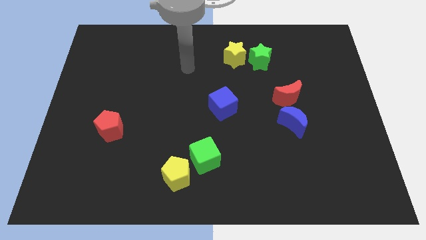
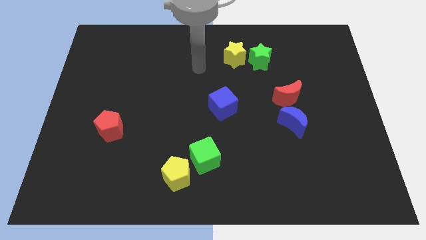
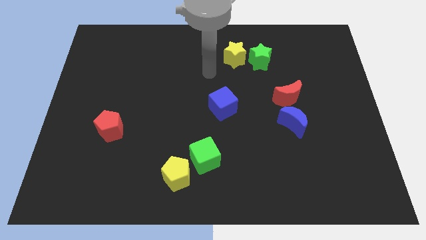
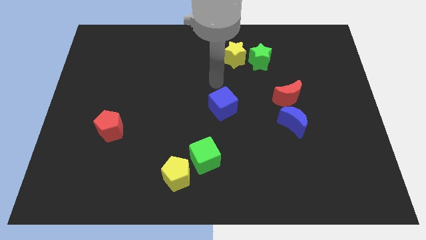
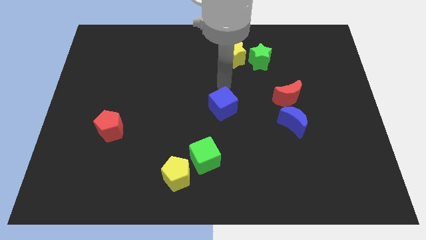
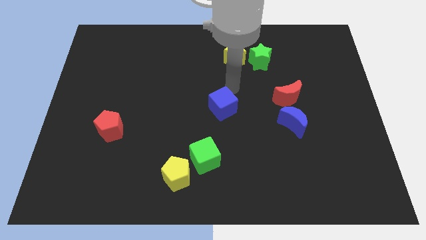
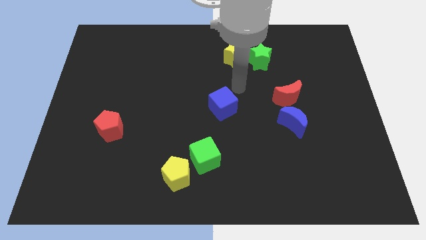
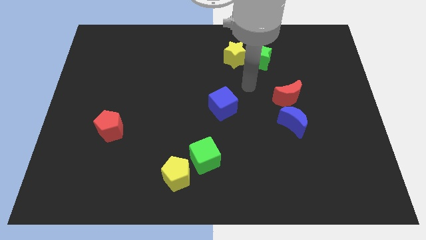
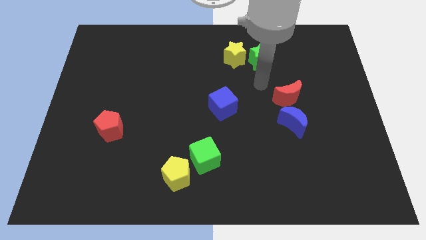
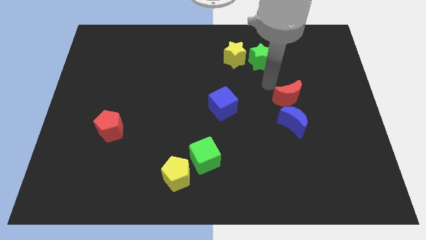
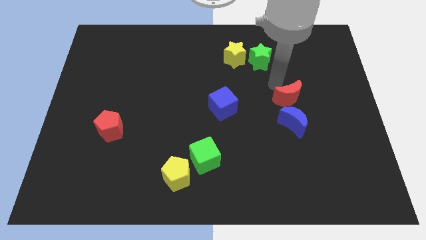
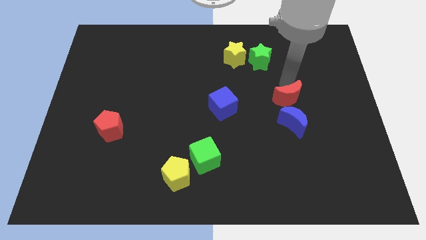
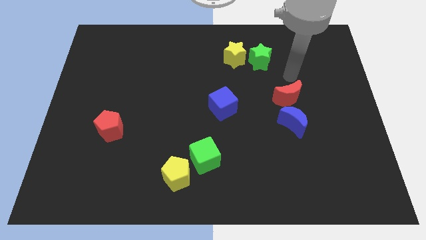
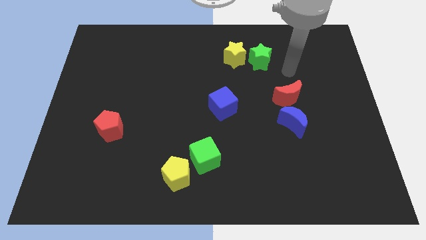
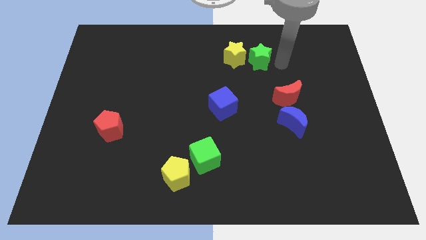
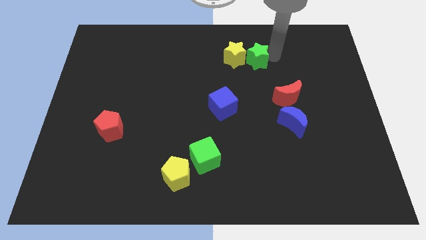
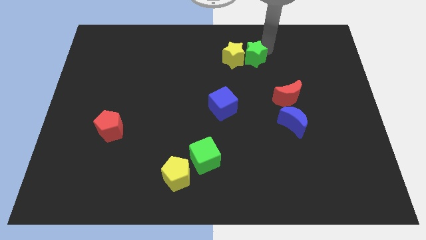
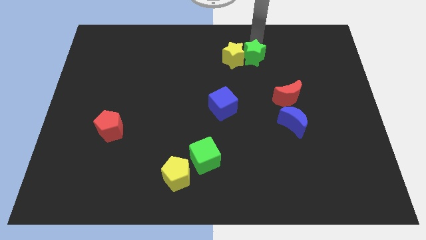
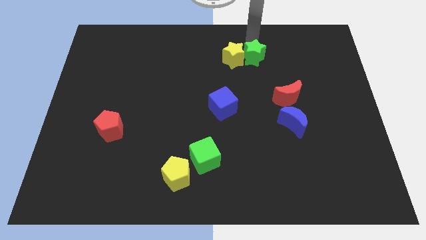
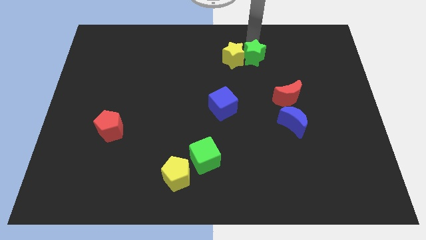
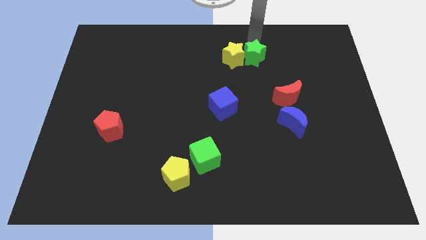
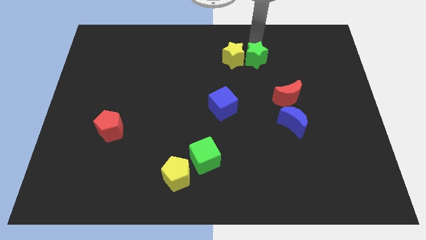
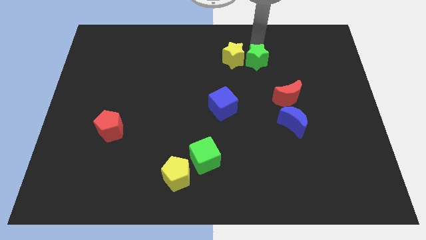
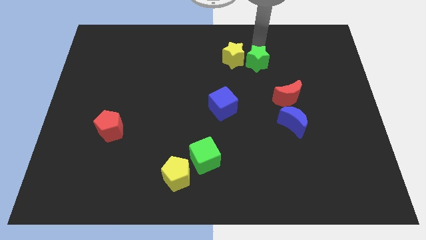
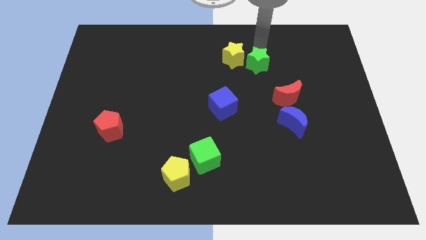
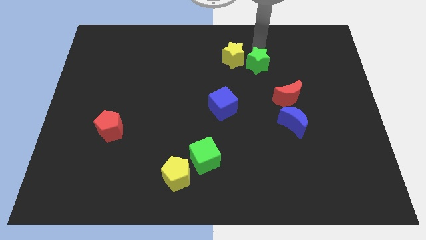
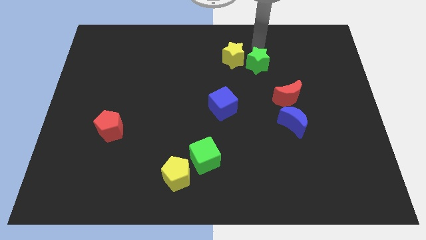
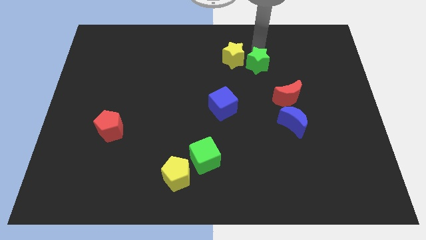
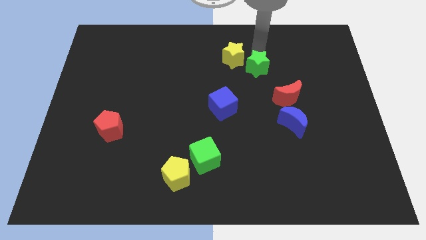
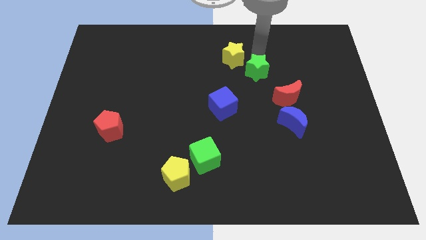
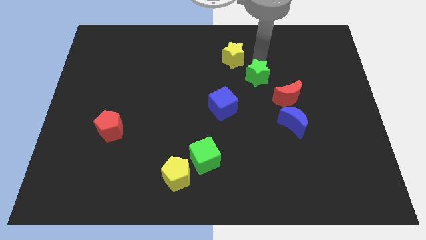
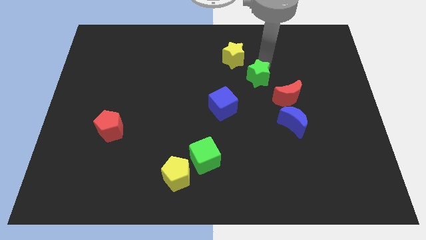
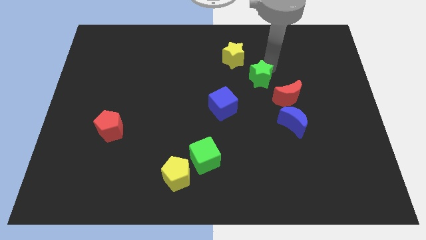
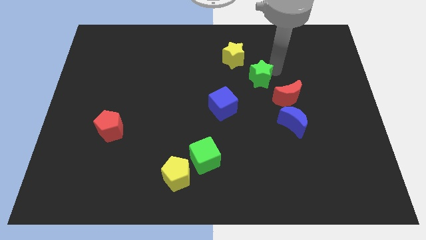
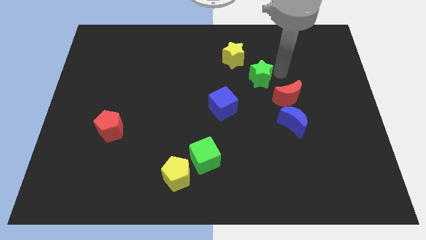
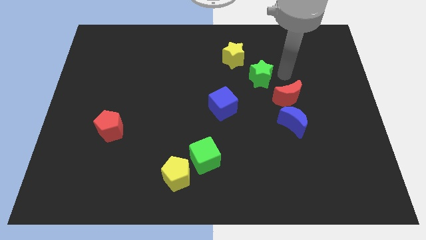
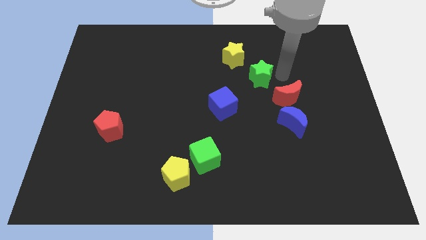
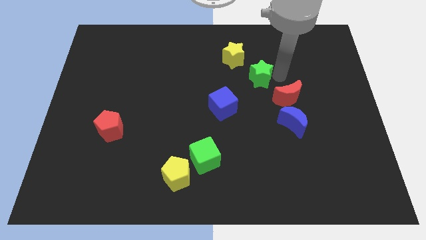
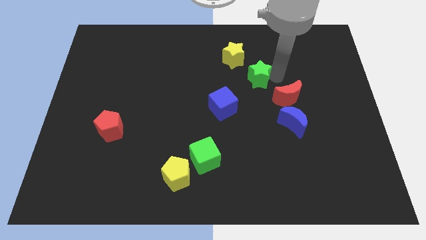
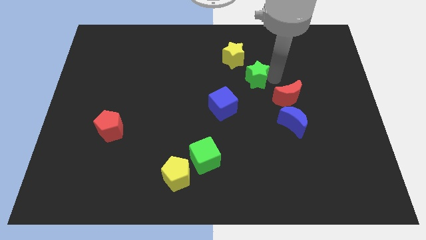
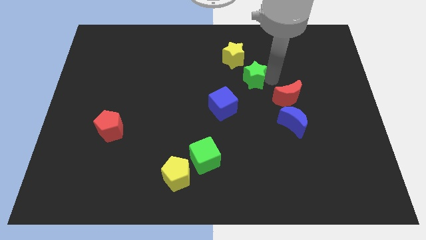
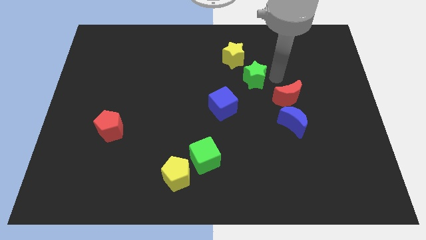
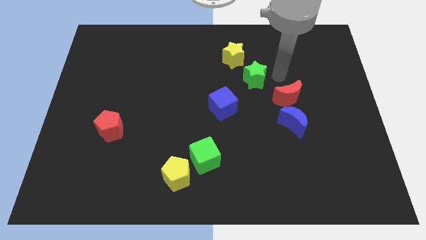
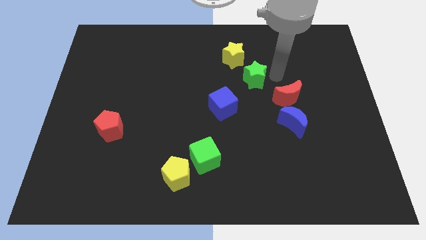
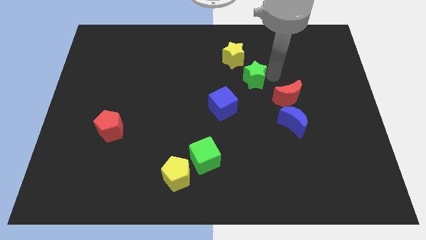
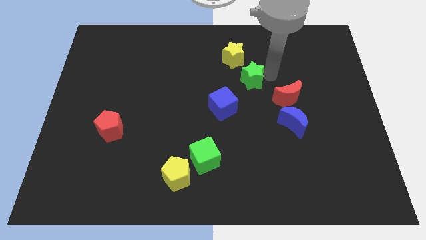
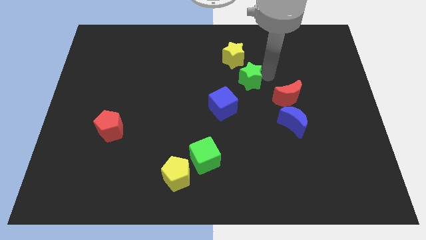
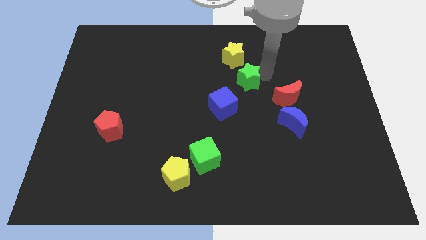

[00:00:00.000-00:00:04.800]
slightly push the green star downwards and to the left

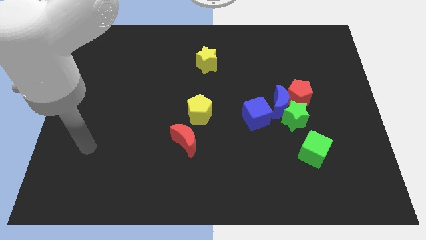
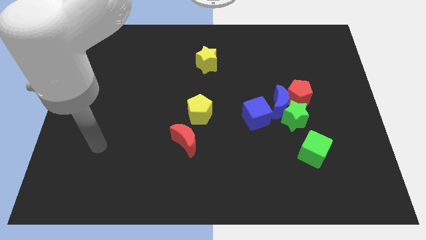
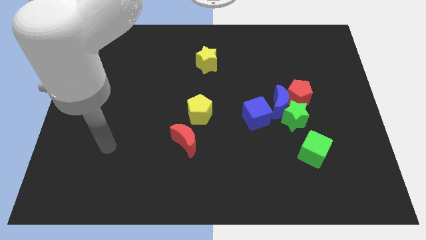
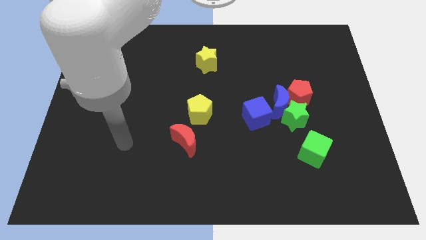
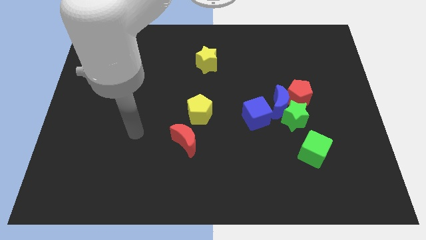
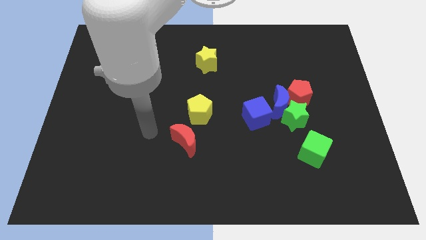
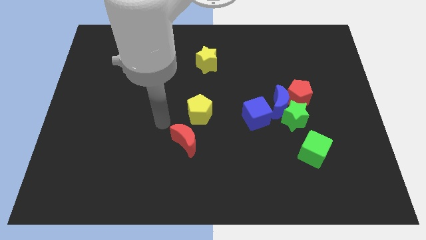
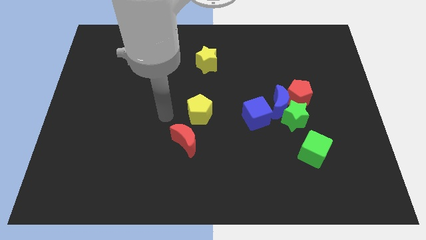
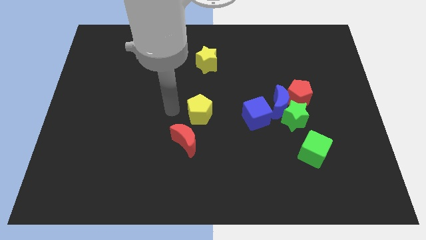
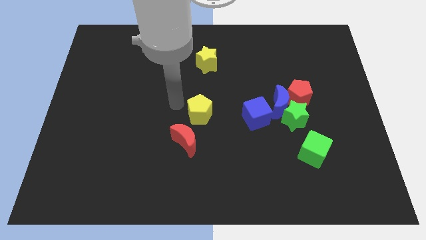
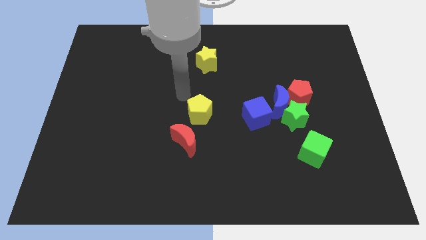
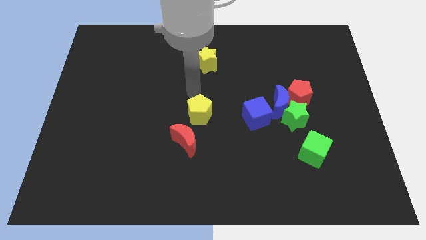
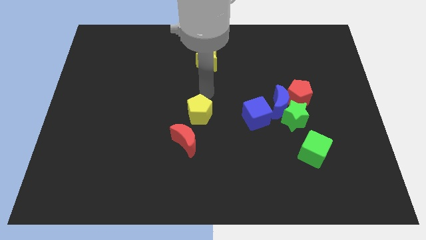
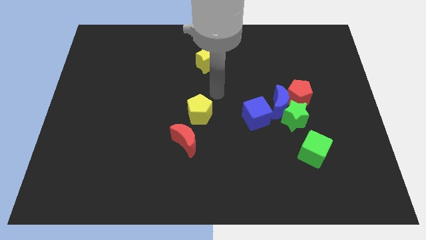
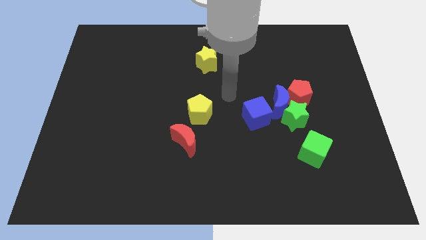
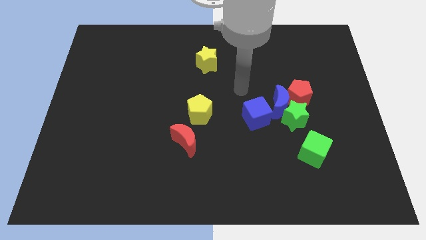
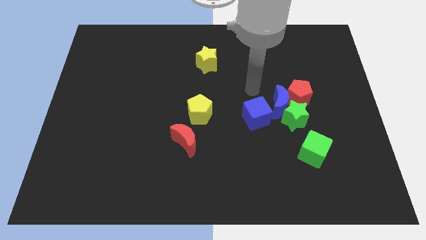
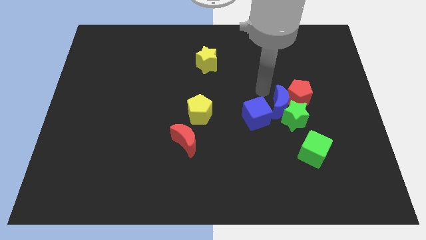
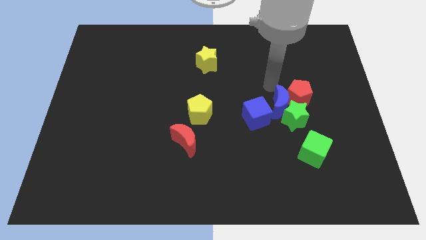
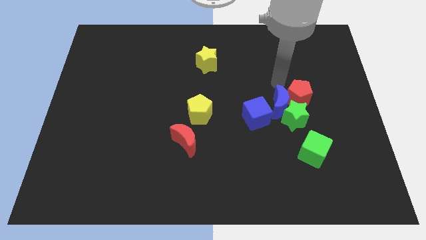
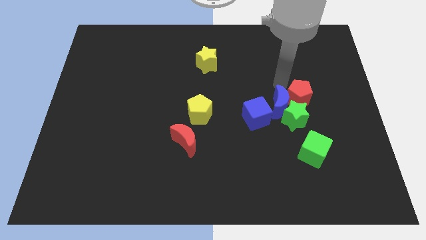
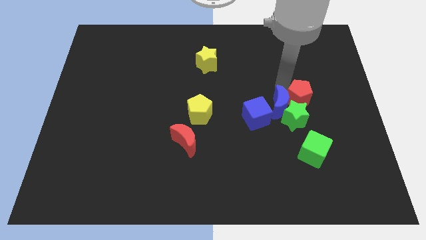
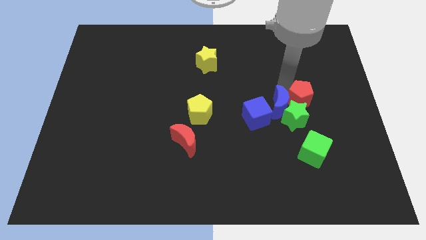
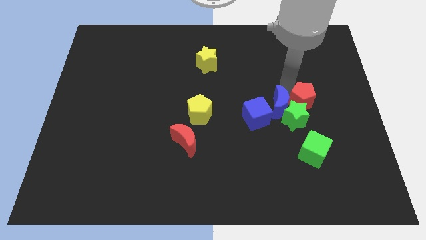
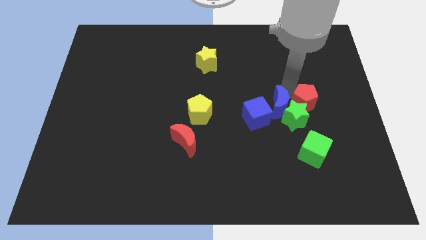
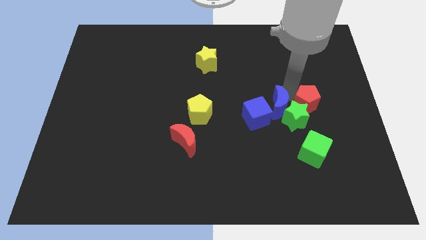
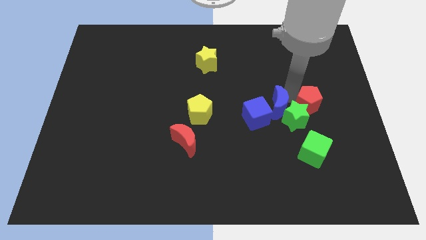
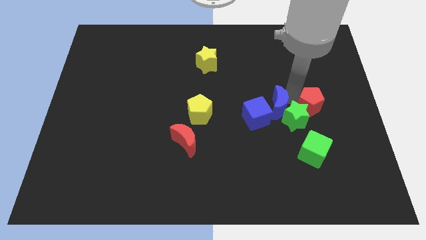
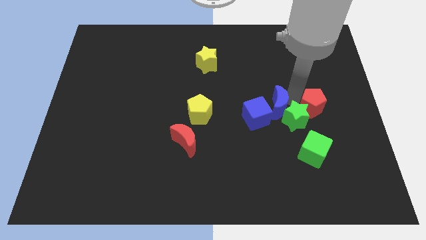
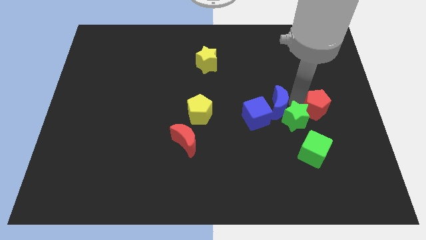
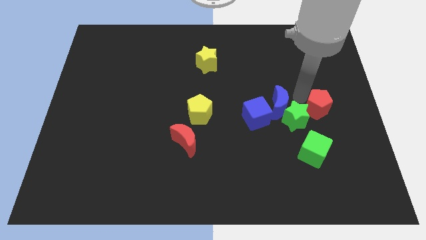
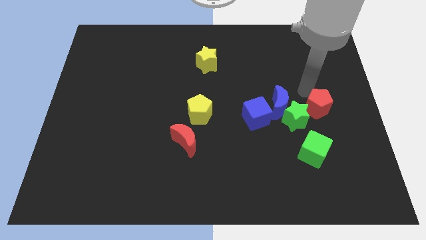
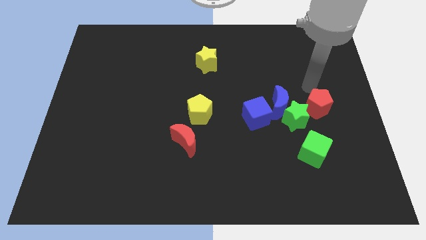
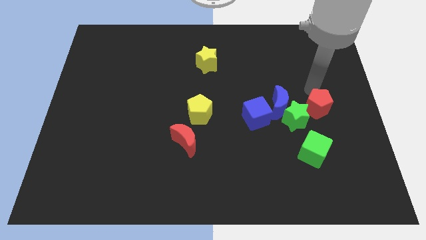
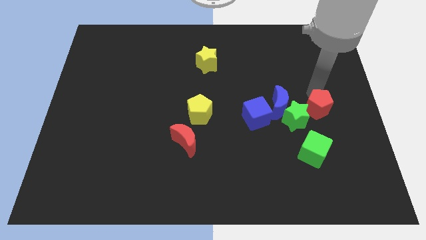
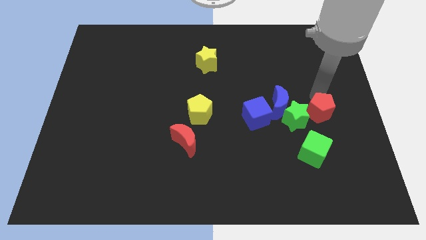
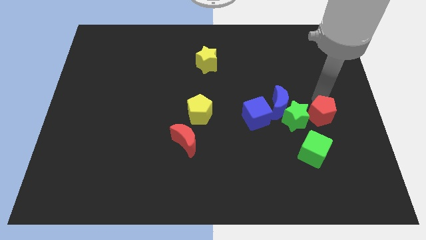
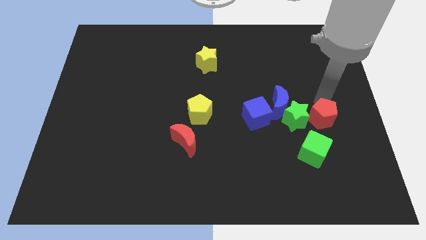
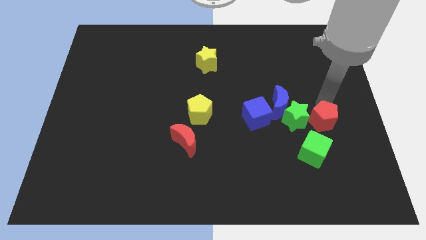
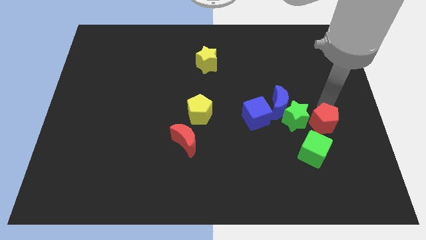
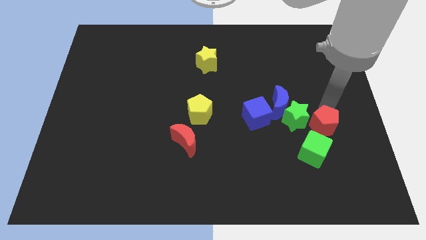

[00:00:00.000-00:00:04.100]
move the red pentagon a little bit downwards
